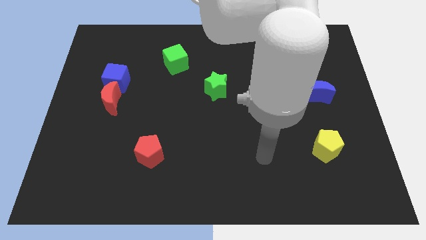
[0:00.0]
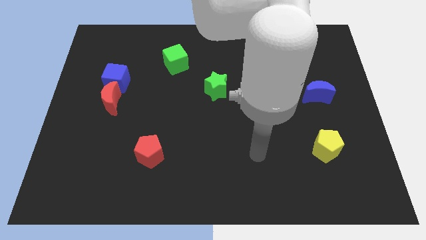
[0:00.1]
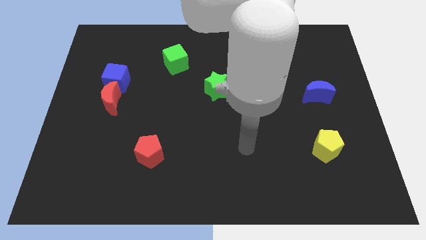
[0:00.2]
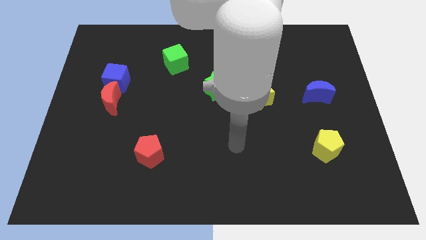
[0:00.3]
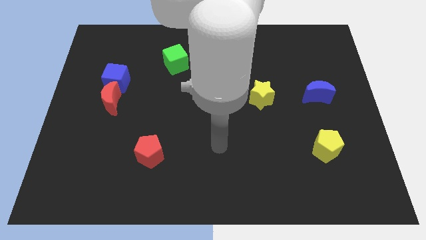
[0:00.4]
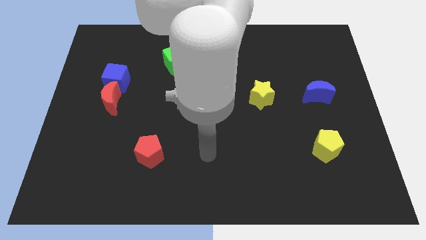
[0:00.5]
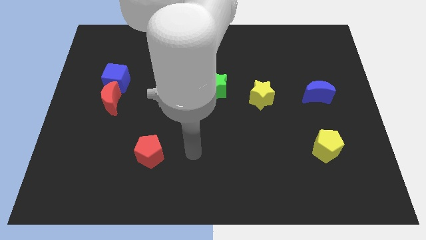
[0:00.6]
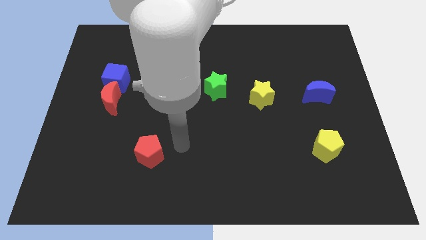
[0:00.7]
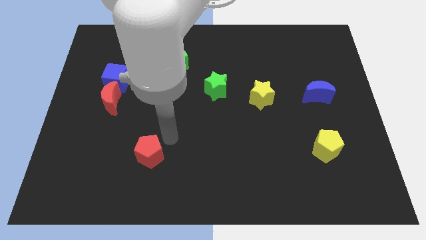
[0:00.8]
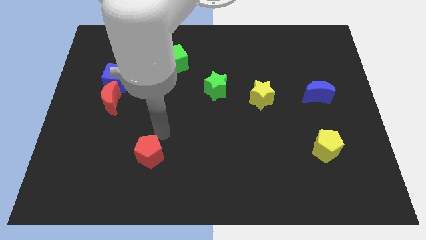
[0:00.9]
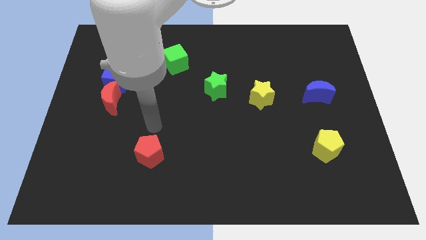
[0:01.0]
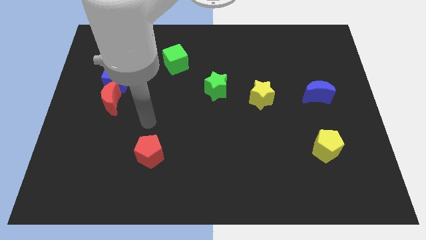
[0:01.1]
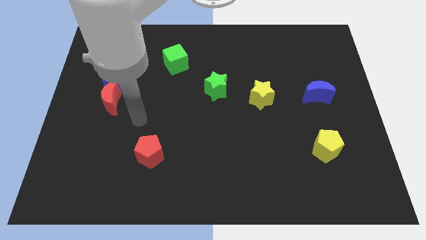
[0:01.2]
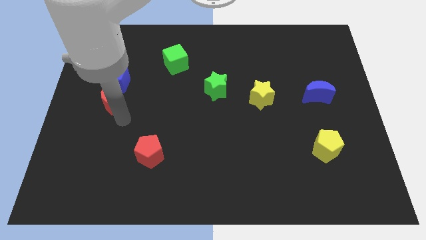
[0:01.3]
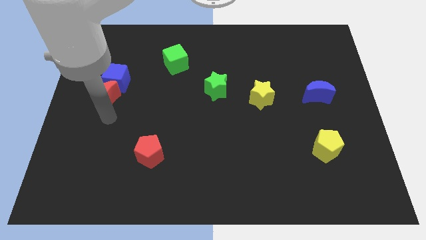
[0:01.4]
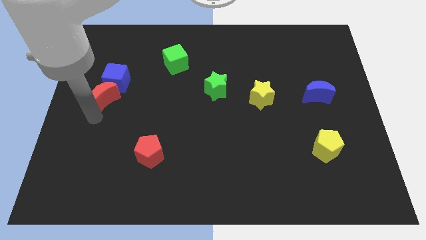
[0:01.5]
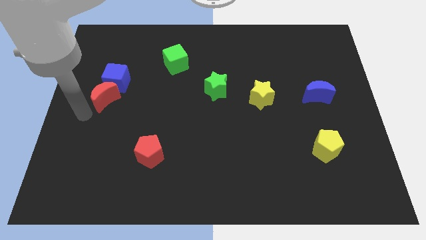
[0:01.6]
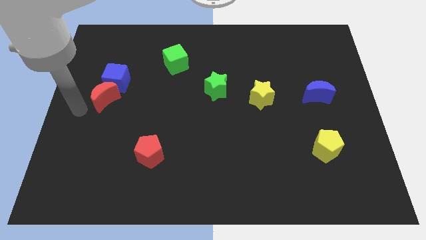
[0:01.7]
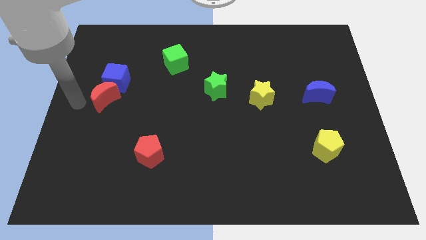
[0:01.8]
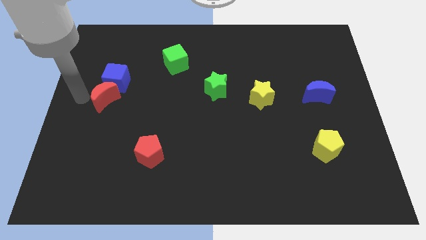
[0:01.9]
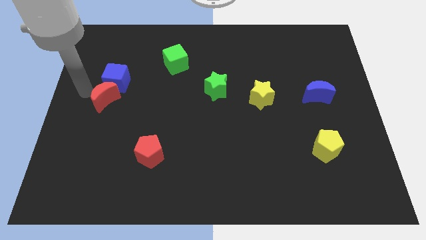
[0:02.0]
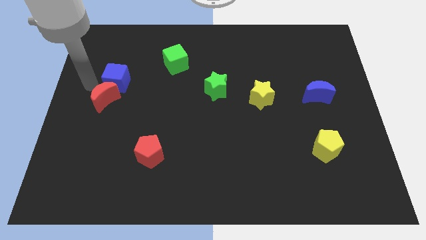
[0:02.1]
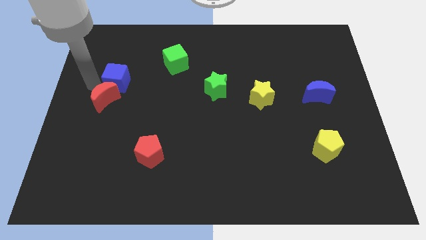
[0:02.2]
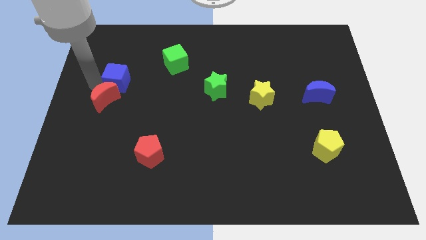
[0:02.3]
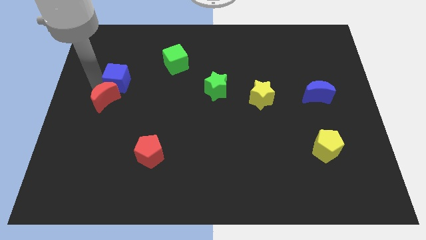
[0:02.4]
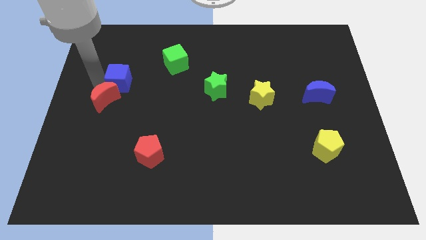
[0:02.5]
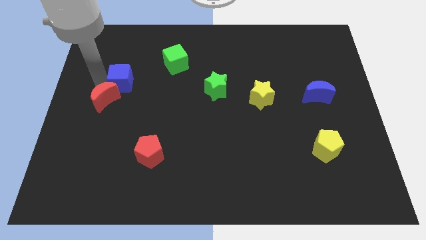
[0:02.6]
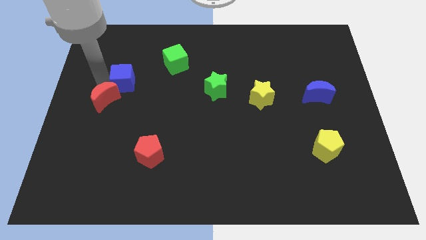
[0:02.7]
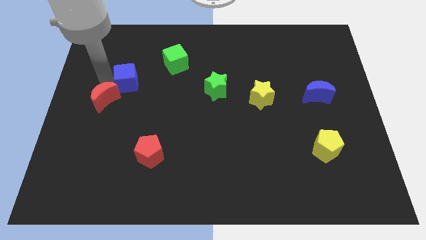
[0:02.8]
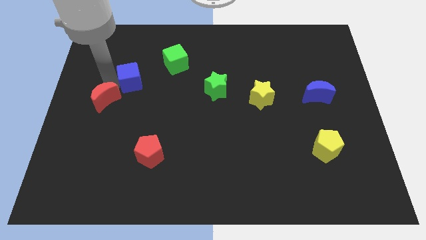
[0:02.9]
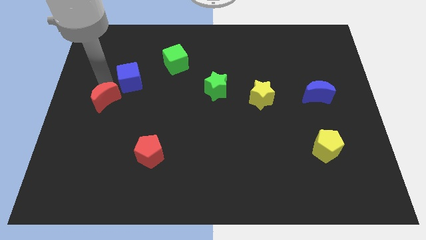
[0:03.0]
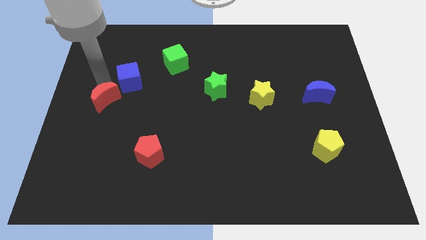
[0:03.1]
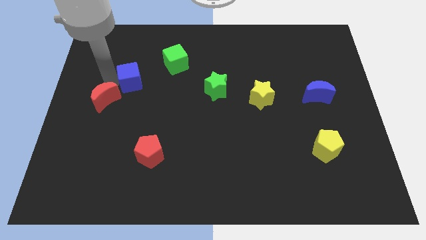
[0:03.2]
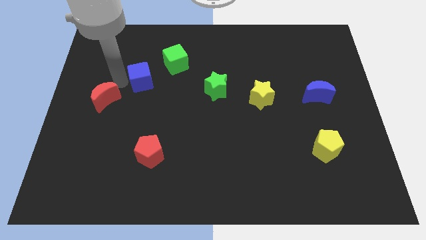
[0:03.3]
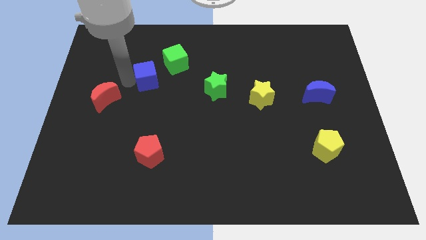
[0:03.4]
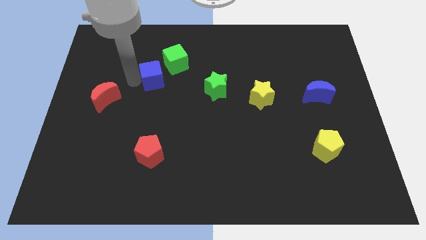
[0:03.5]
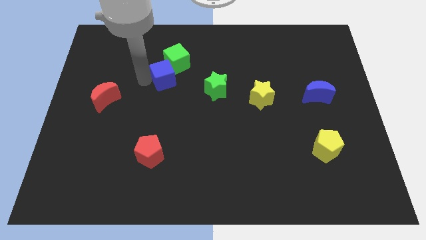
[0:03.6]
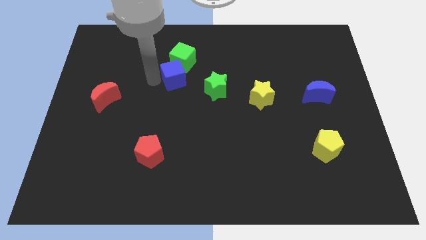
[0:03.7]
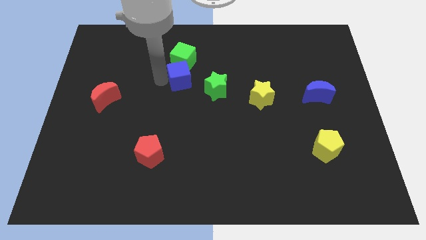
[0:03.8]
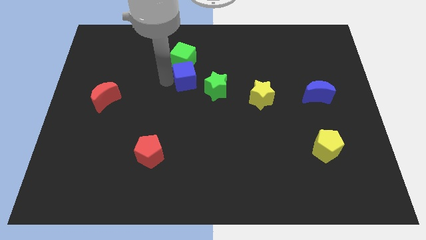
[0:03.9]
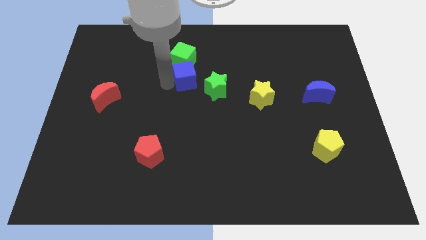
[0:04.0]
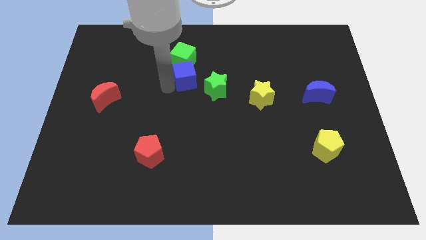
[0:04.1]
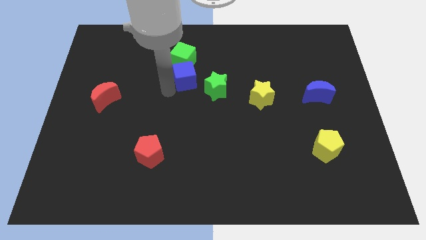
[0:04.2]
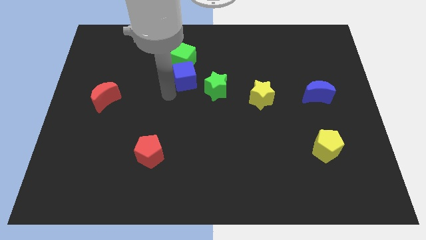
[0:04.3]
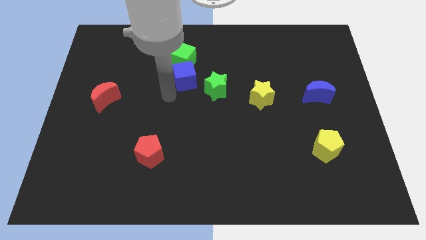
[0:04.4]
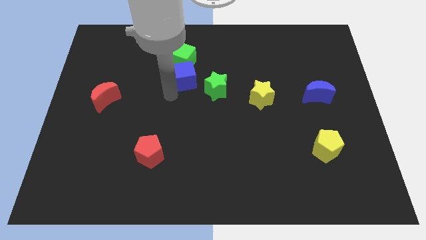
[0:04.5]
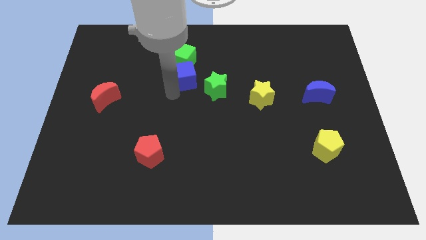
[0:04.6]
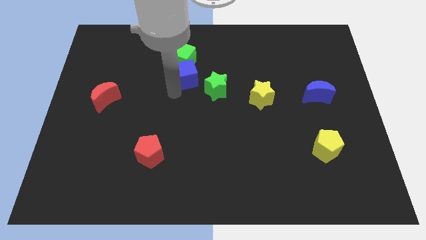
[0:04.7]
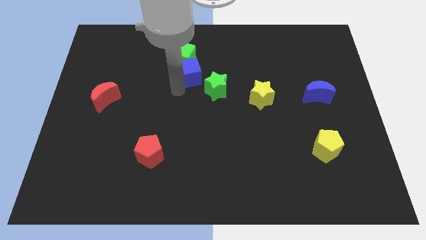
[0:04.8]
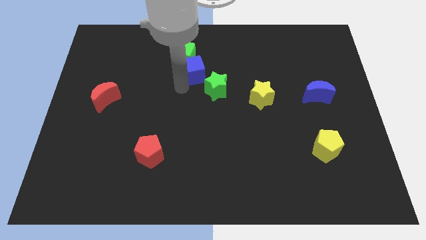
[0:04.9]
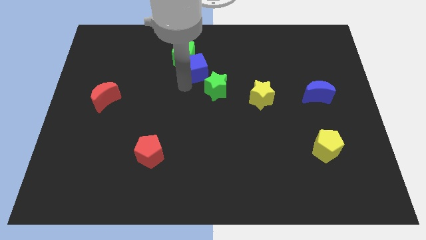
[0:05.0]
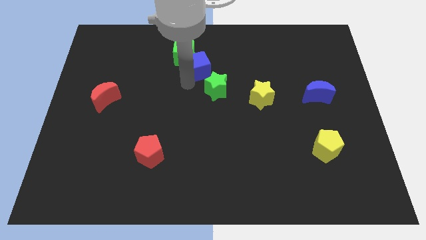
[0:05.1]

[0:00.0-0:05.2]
push the blue cube right of the green cube

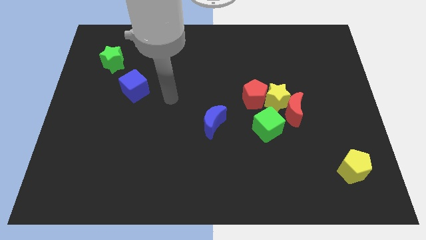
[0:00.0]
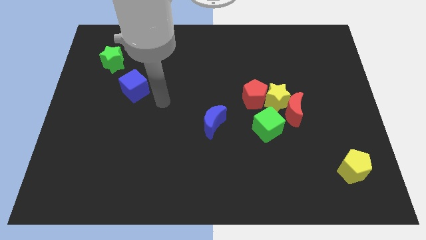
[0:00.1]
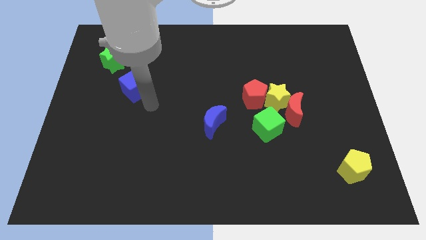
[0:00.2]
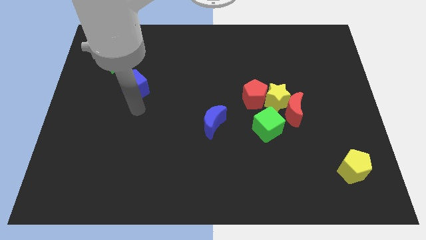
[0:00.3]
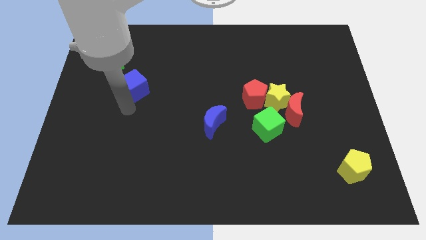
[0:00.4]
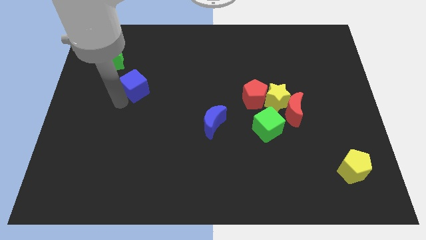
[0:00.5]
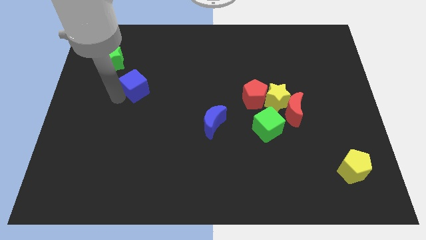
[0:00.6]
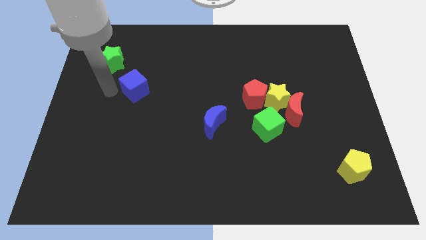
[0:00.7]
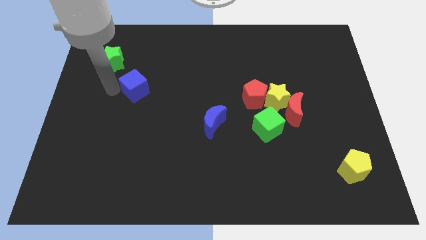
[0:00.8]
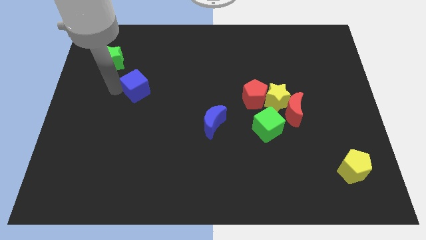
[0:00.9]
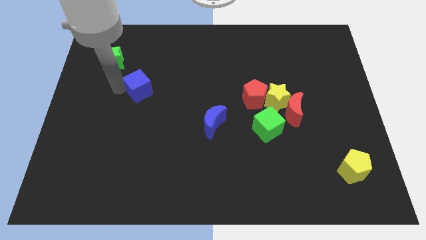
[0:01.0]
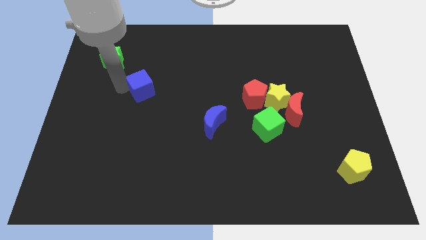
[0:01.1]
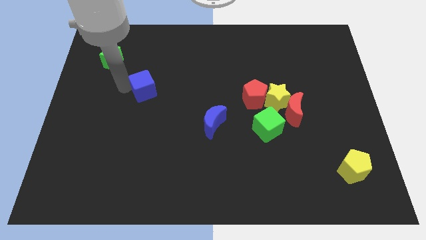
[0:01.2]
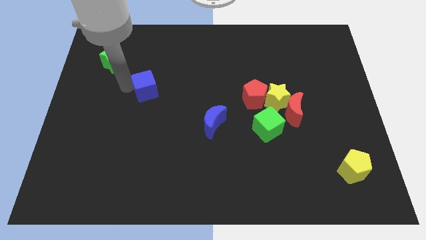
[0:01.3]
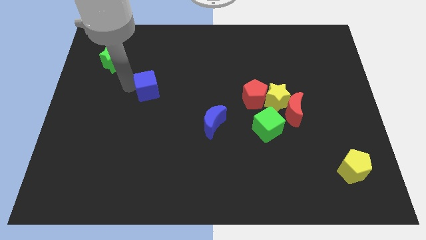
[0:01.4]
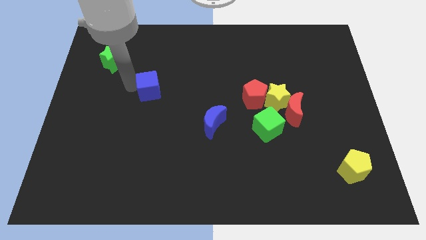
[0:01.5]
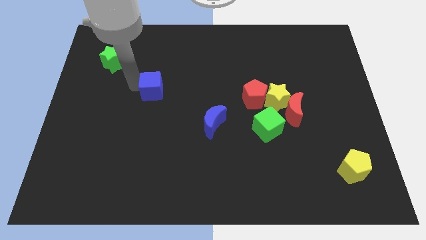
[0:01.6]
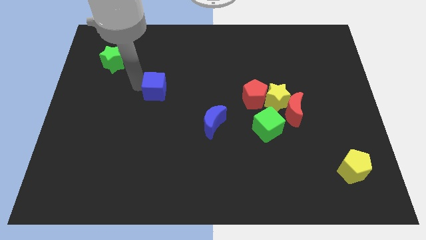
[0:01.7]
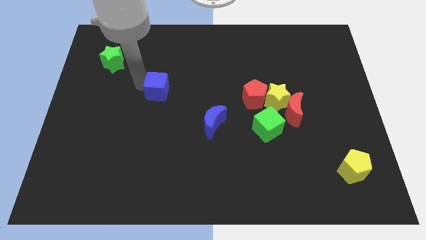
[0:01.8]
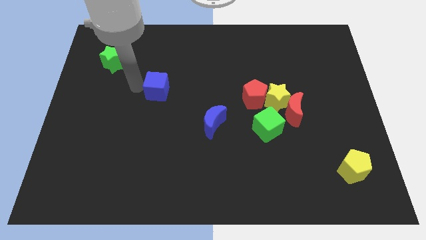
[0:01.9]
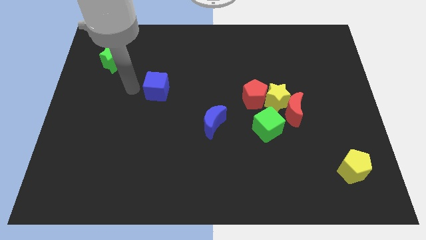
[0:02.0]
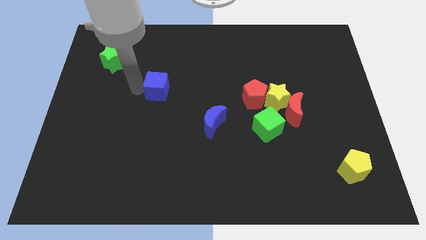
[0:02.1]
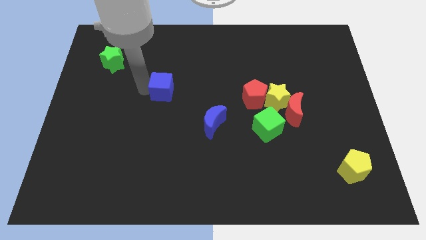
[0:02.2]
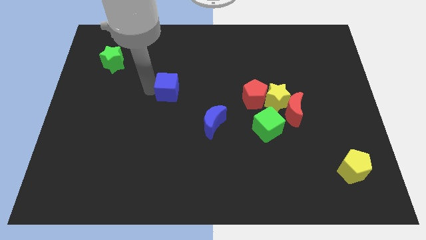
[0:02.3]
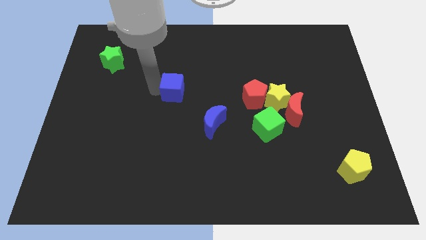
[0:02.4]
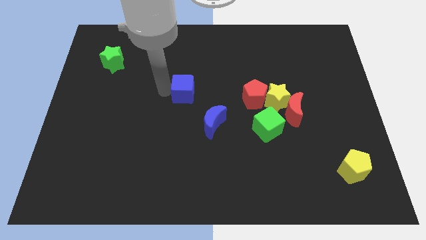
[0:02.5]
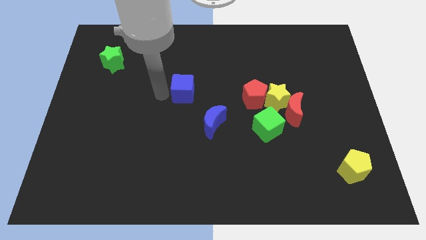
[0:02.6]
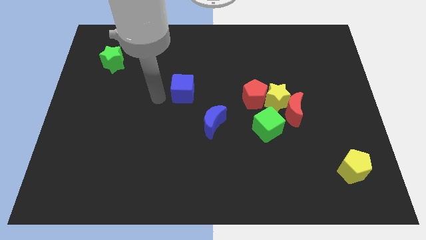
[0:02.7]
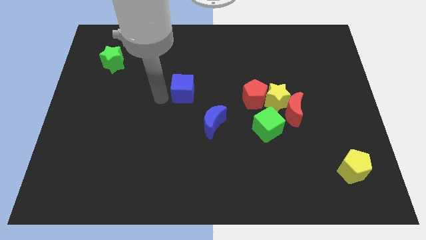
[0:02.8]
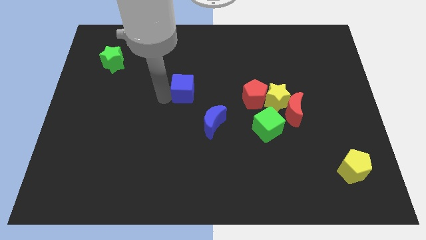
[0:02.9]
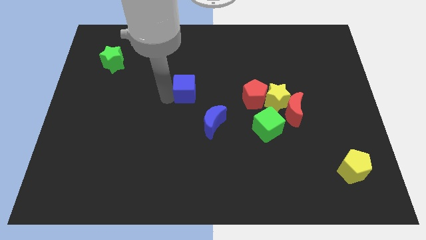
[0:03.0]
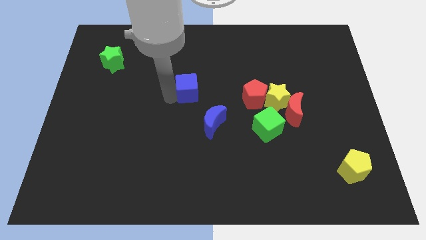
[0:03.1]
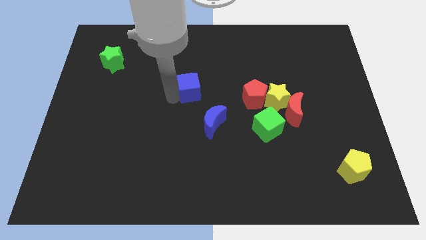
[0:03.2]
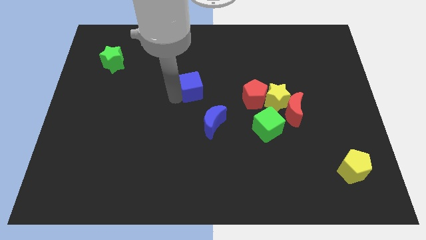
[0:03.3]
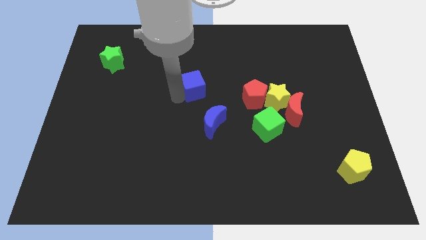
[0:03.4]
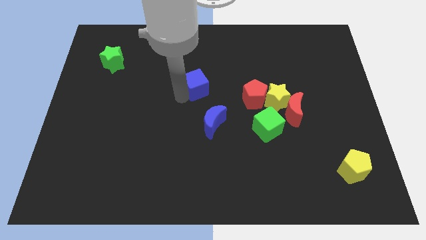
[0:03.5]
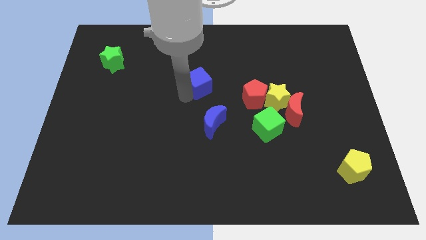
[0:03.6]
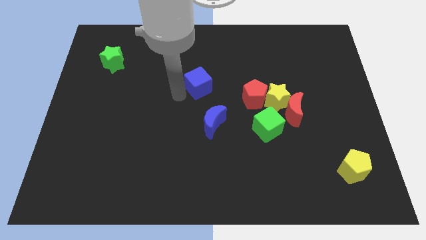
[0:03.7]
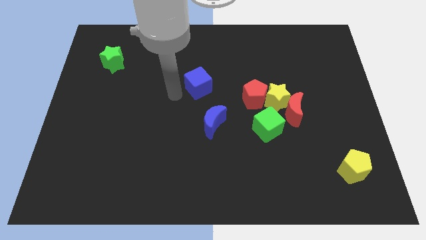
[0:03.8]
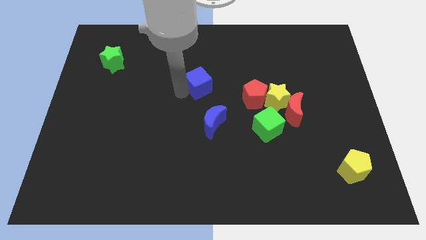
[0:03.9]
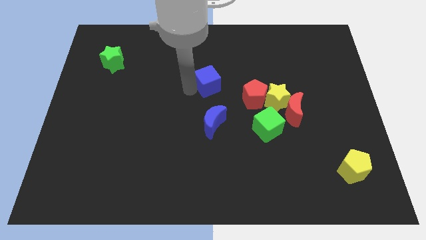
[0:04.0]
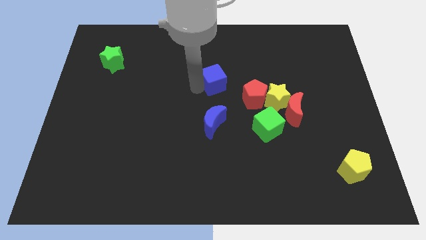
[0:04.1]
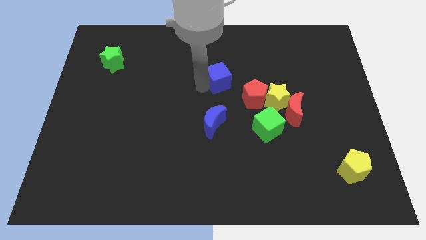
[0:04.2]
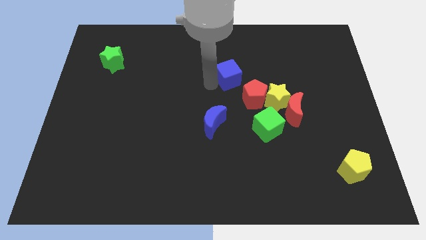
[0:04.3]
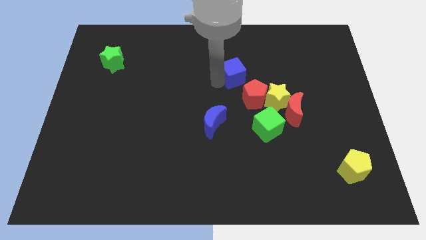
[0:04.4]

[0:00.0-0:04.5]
push the blue cube to the top of the red pentagon
